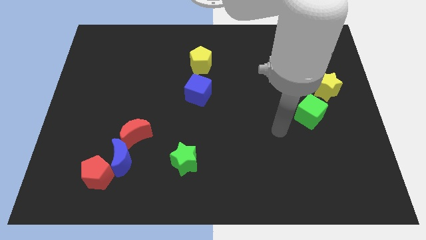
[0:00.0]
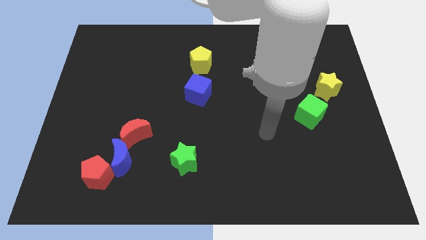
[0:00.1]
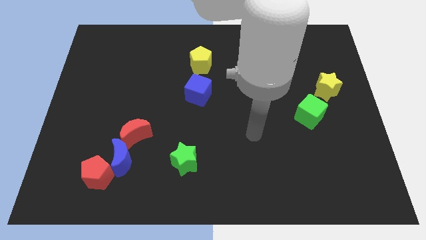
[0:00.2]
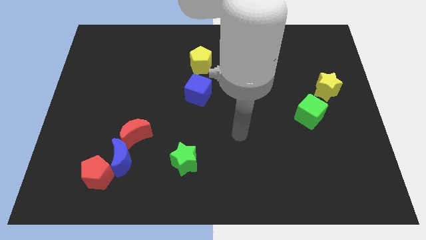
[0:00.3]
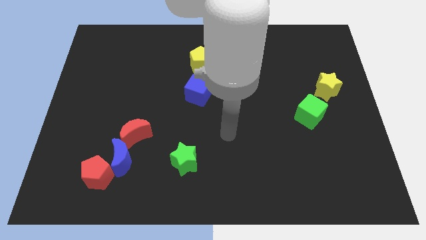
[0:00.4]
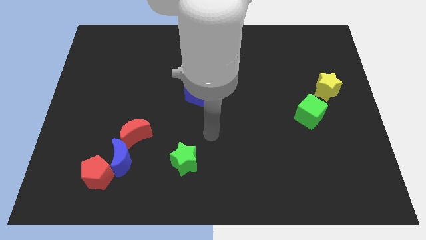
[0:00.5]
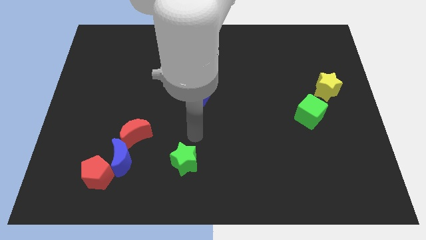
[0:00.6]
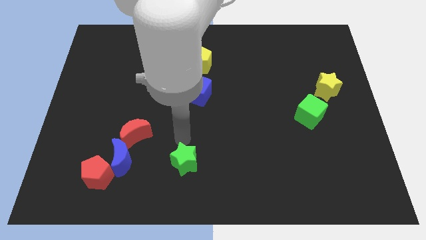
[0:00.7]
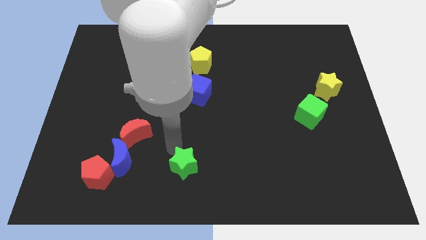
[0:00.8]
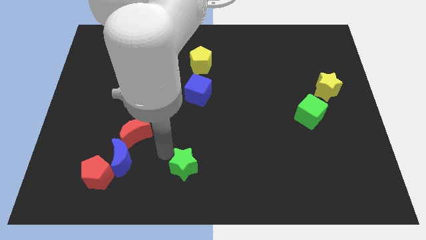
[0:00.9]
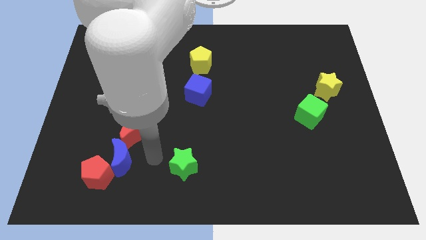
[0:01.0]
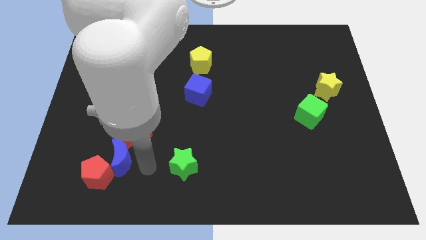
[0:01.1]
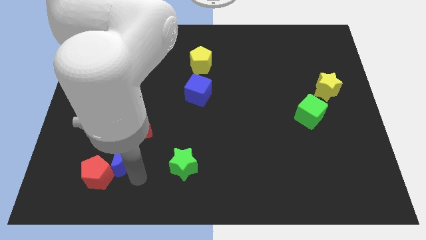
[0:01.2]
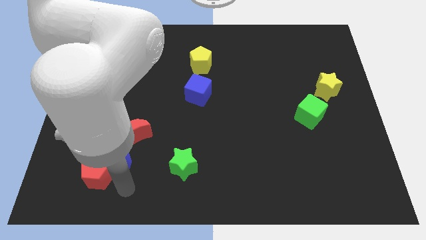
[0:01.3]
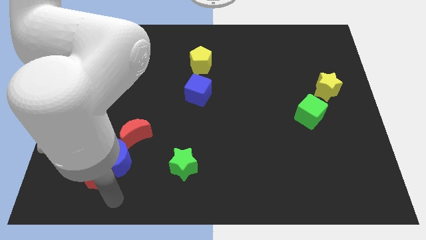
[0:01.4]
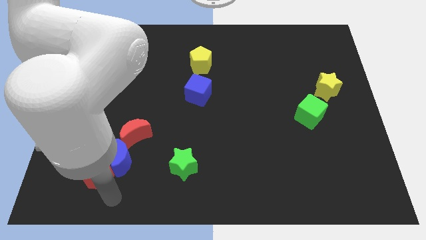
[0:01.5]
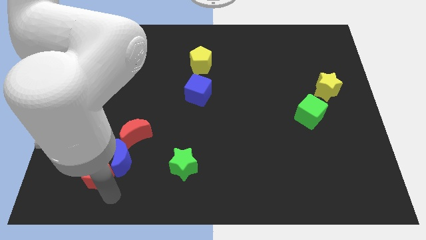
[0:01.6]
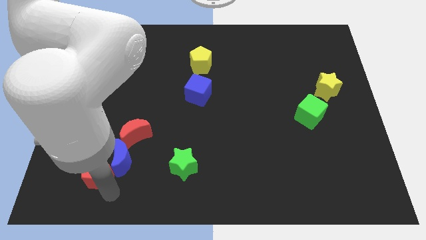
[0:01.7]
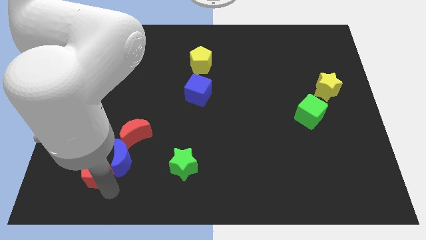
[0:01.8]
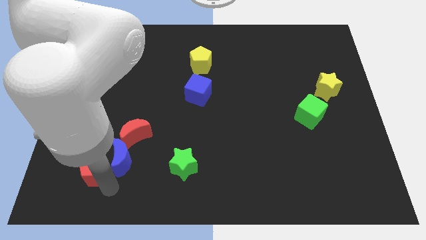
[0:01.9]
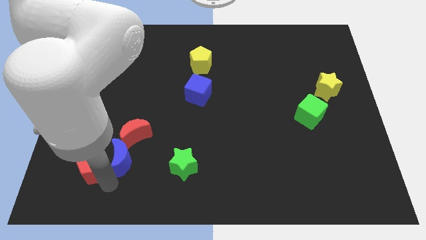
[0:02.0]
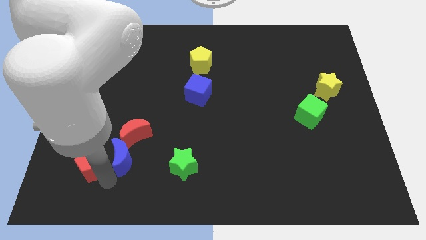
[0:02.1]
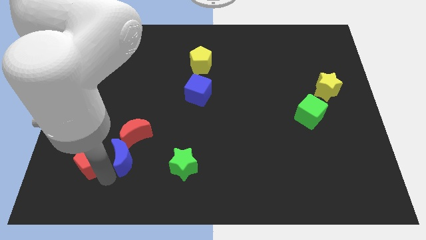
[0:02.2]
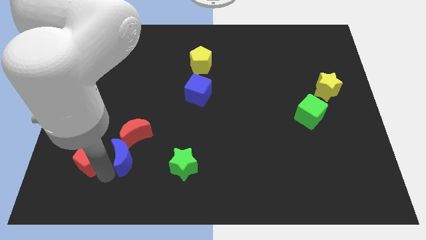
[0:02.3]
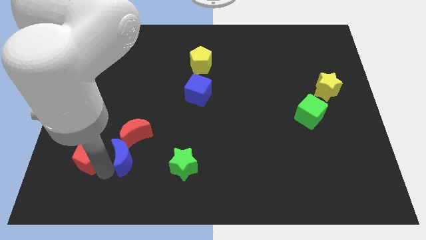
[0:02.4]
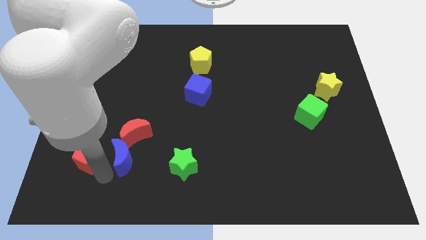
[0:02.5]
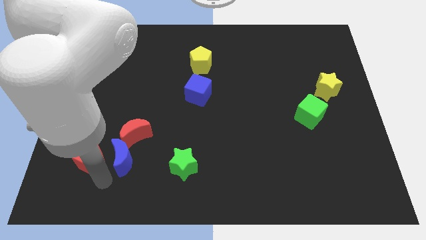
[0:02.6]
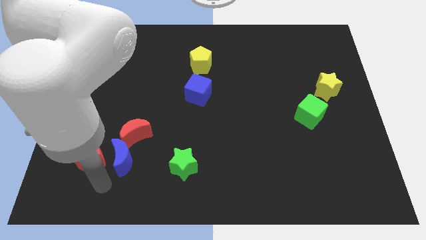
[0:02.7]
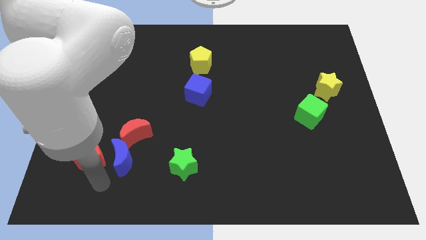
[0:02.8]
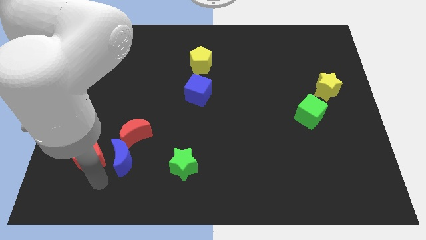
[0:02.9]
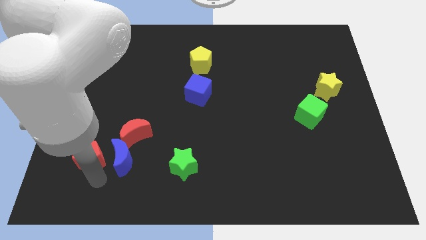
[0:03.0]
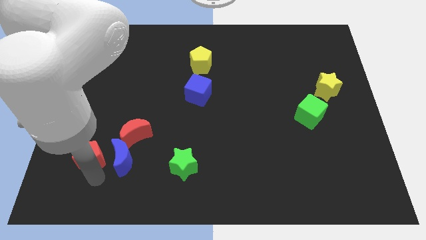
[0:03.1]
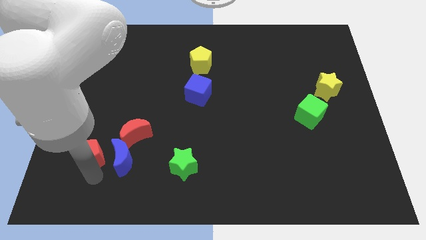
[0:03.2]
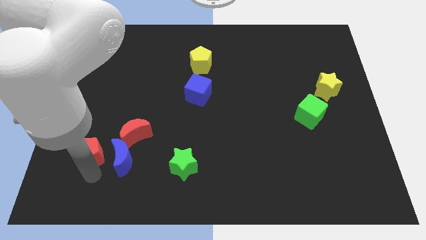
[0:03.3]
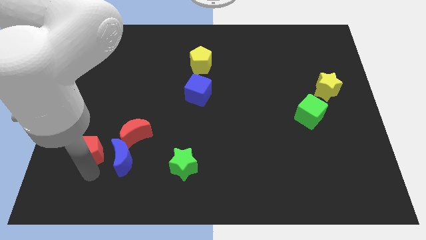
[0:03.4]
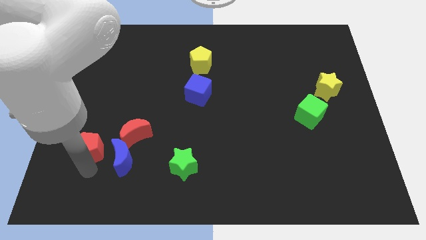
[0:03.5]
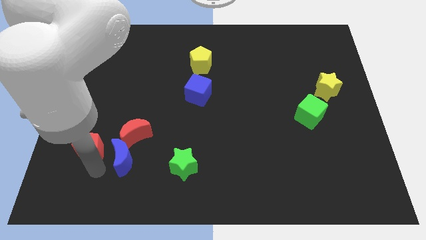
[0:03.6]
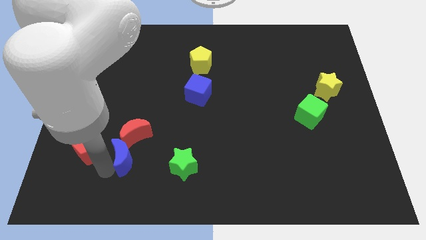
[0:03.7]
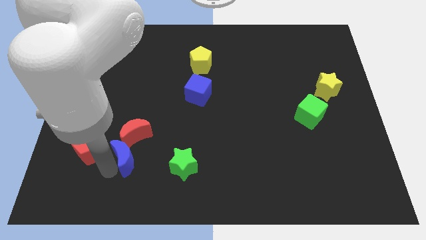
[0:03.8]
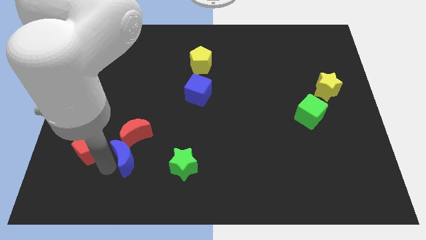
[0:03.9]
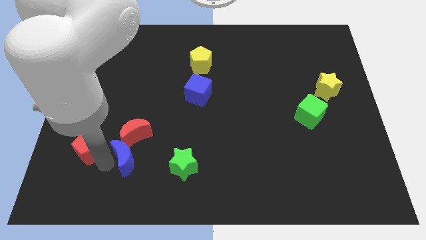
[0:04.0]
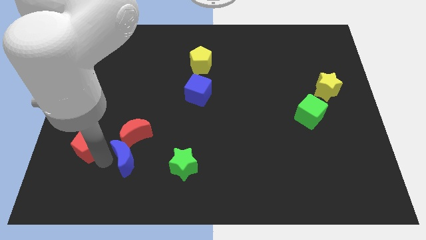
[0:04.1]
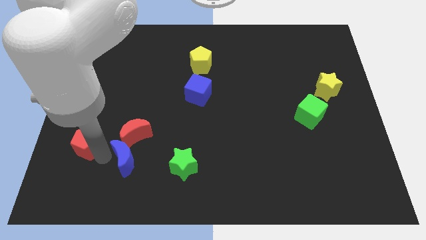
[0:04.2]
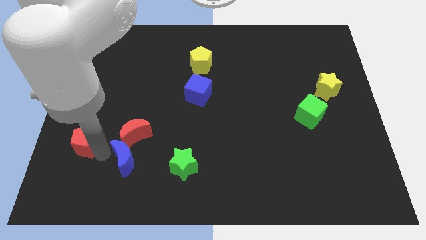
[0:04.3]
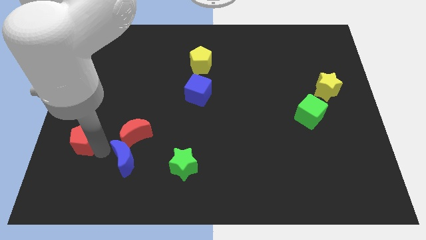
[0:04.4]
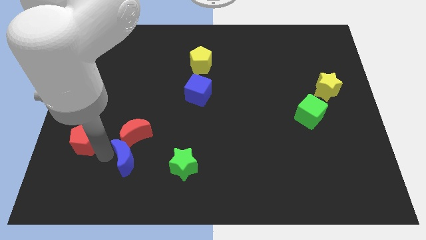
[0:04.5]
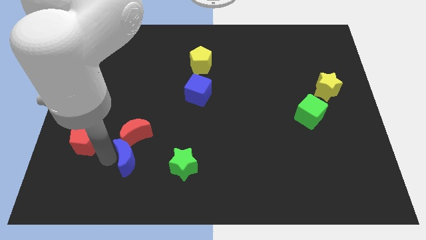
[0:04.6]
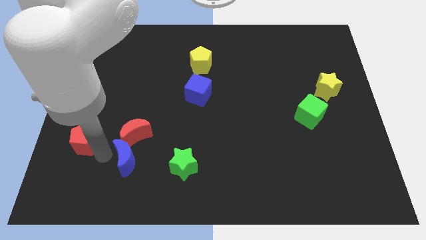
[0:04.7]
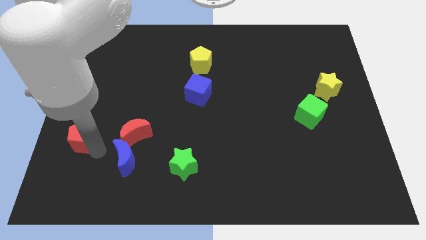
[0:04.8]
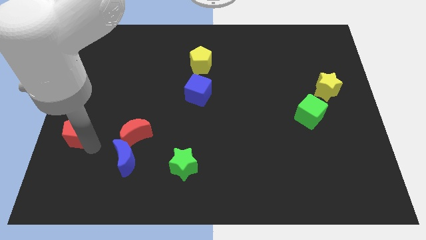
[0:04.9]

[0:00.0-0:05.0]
slide the red pentagon to the center left

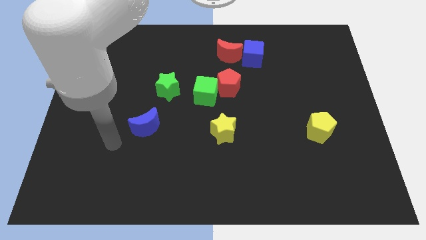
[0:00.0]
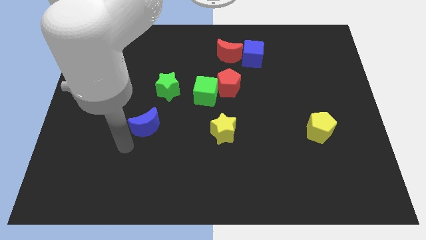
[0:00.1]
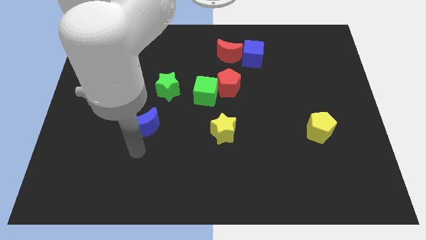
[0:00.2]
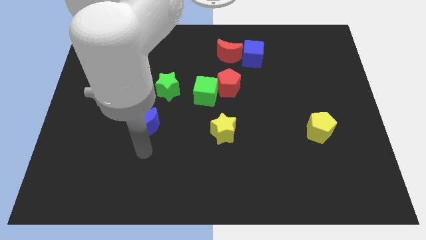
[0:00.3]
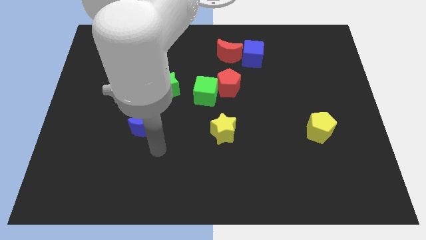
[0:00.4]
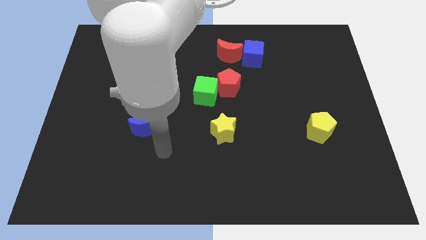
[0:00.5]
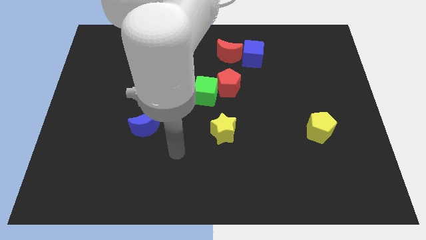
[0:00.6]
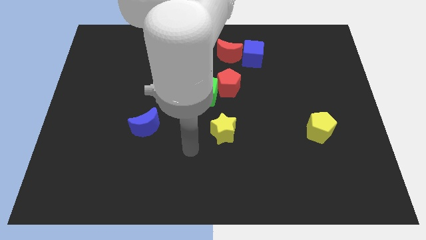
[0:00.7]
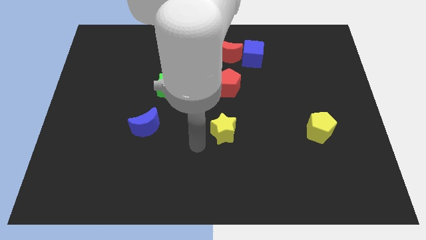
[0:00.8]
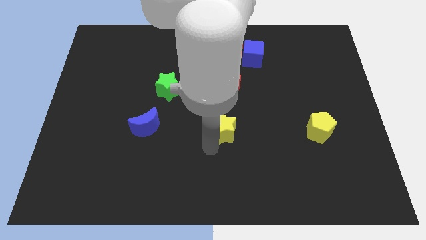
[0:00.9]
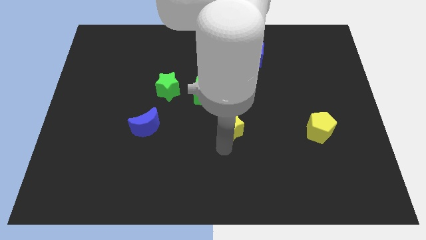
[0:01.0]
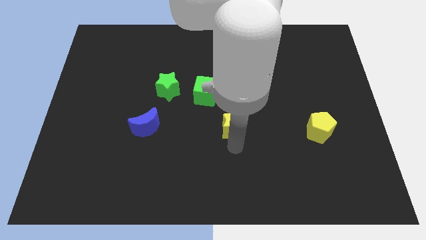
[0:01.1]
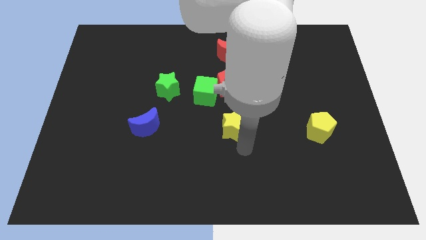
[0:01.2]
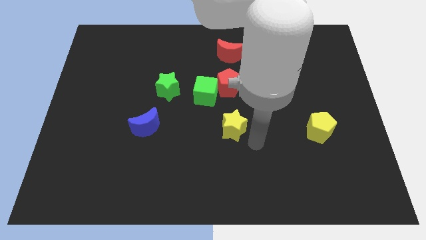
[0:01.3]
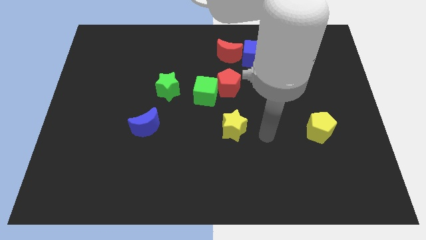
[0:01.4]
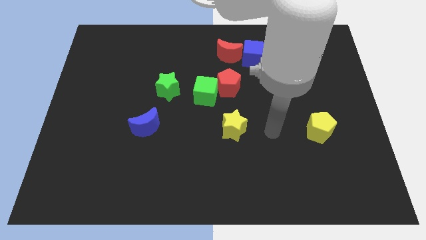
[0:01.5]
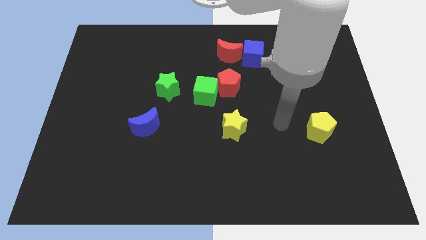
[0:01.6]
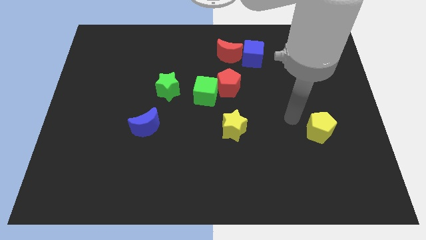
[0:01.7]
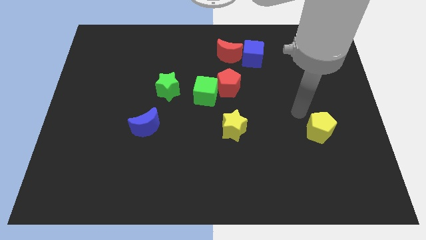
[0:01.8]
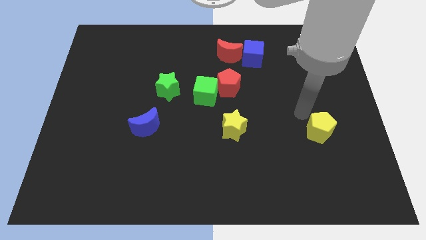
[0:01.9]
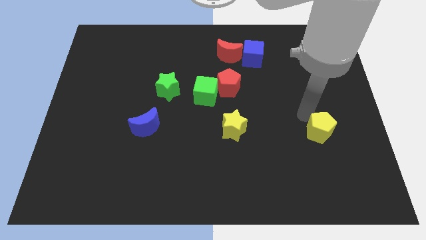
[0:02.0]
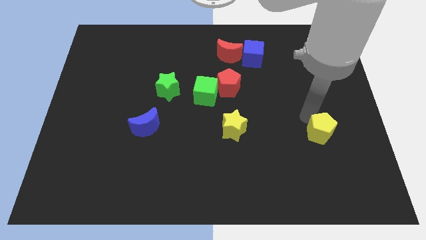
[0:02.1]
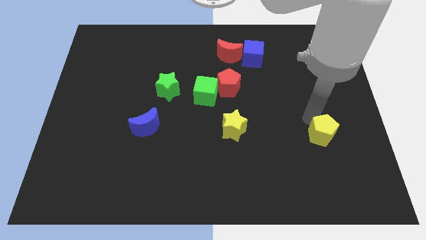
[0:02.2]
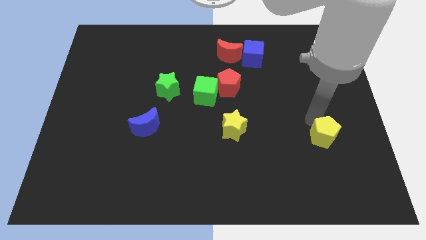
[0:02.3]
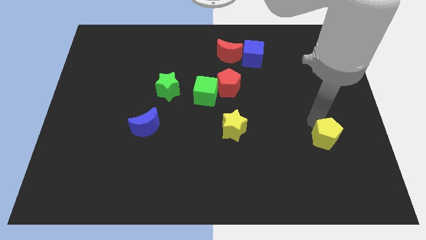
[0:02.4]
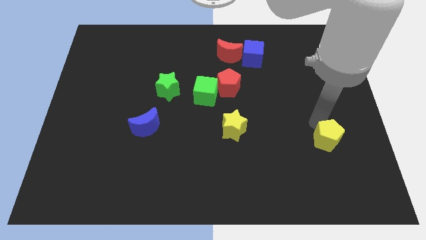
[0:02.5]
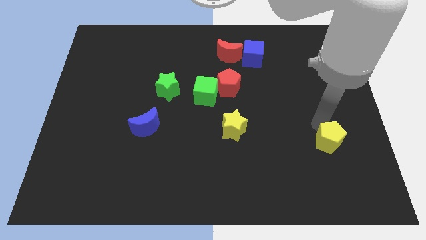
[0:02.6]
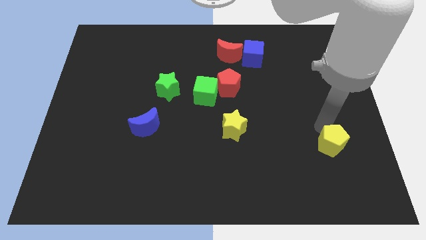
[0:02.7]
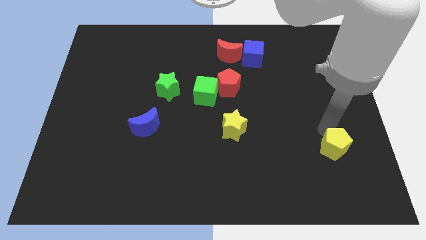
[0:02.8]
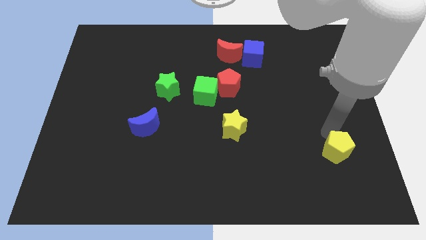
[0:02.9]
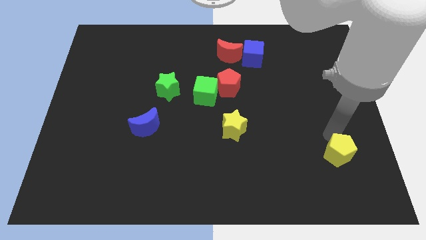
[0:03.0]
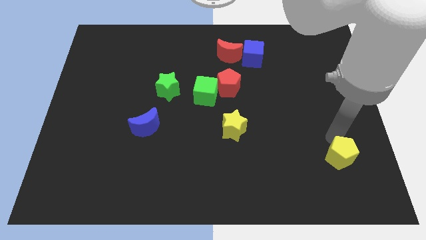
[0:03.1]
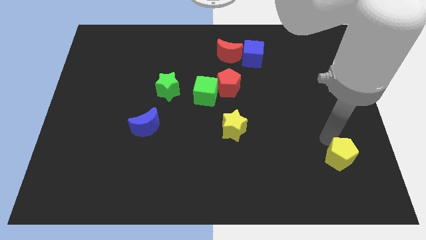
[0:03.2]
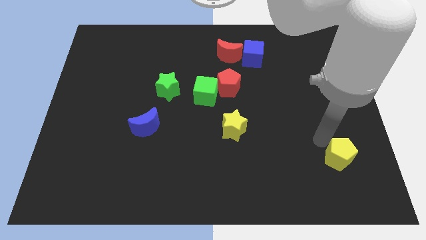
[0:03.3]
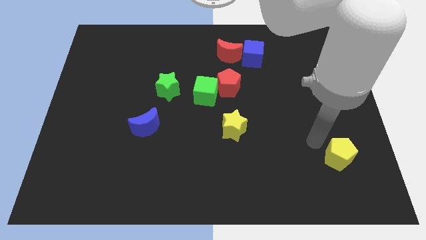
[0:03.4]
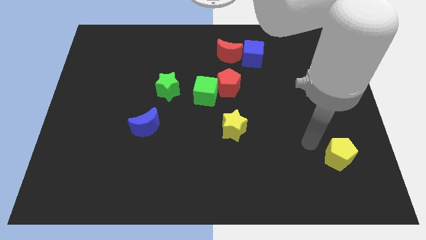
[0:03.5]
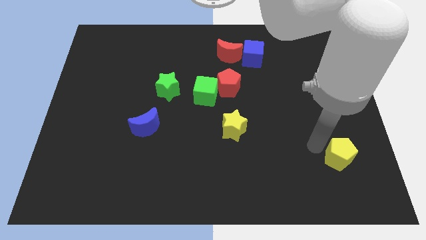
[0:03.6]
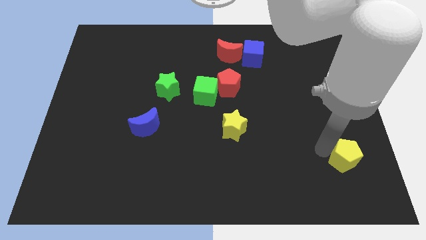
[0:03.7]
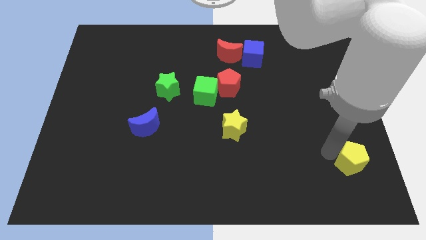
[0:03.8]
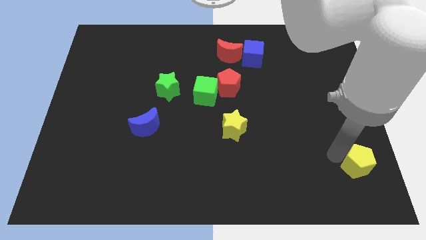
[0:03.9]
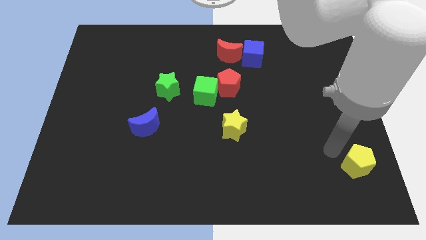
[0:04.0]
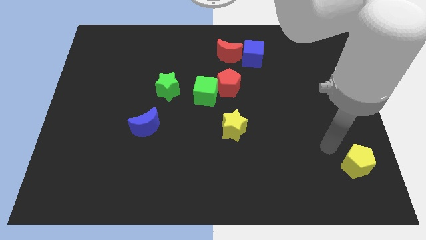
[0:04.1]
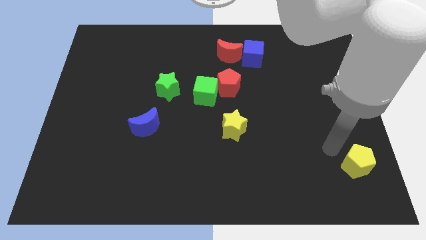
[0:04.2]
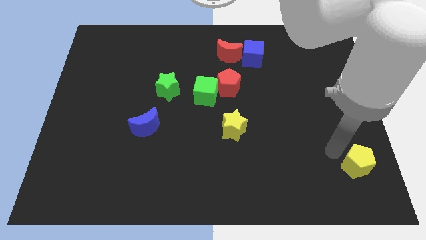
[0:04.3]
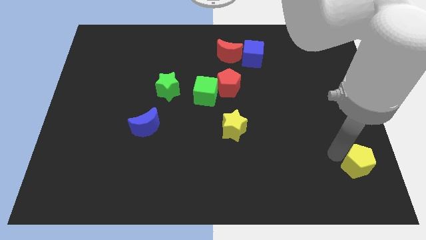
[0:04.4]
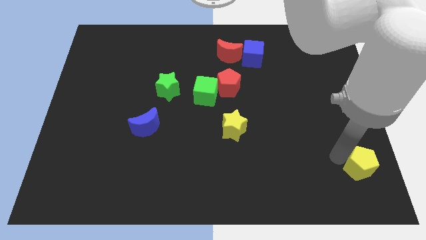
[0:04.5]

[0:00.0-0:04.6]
push the yellow pentagon to the lower right corner
